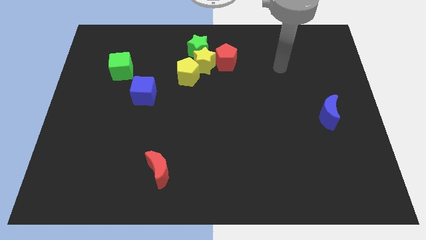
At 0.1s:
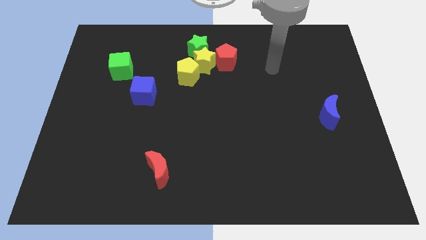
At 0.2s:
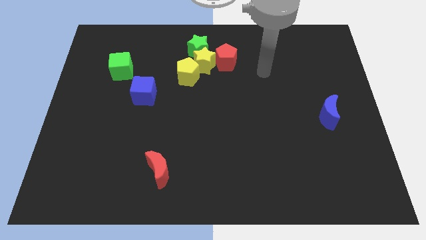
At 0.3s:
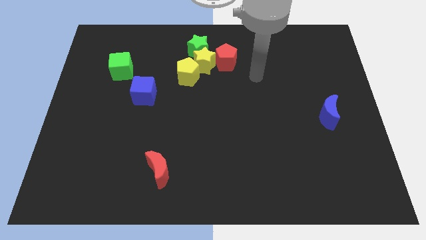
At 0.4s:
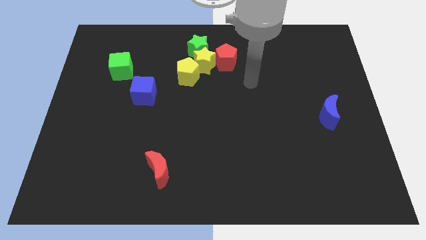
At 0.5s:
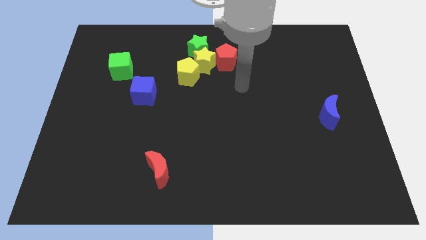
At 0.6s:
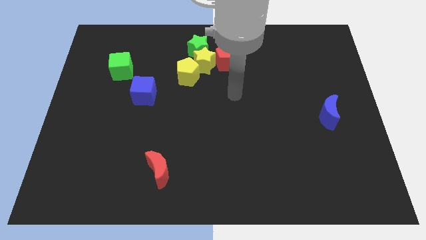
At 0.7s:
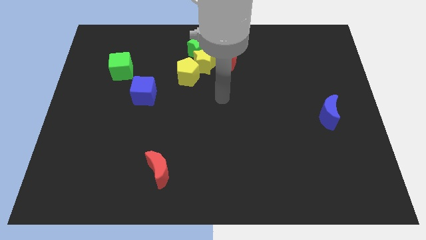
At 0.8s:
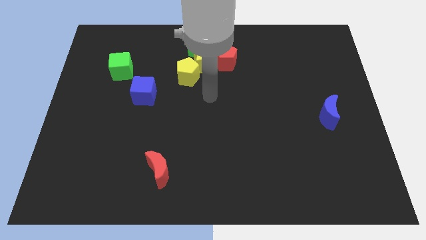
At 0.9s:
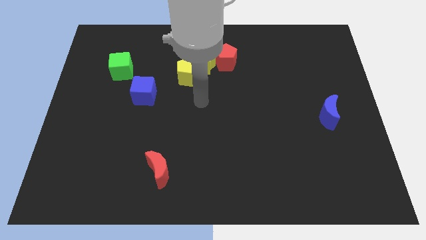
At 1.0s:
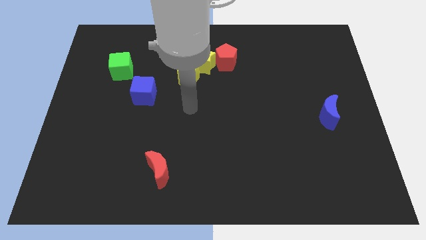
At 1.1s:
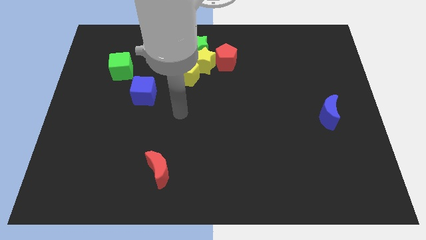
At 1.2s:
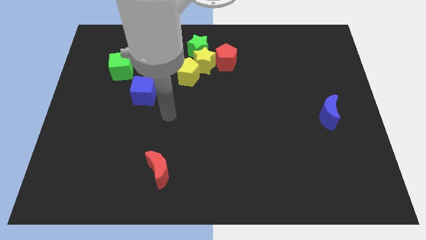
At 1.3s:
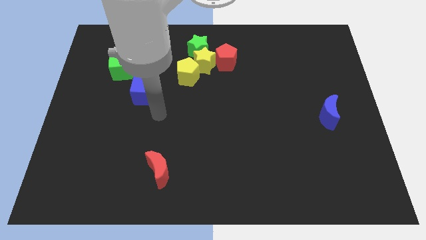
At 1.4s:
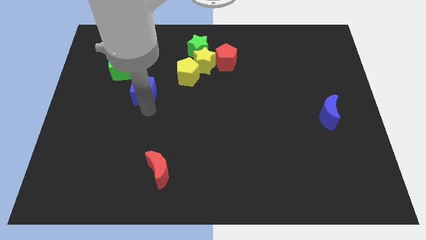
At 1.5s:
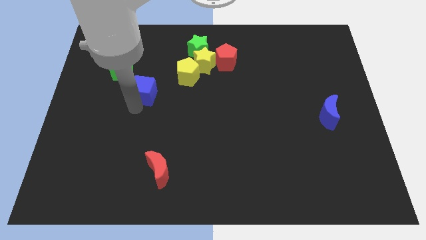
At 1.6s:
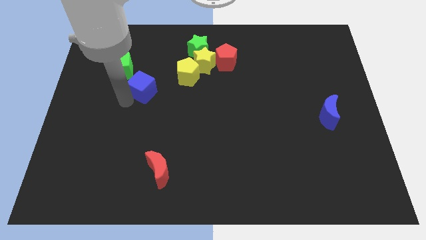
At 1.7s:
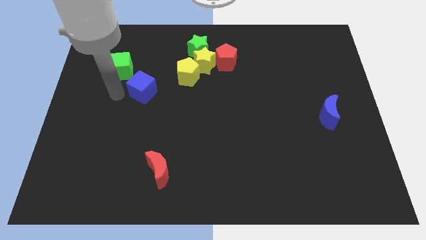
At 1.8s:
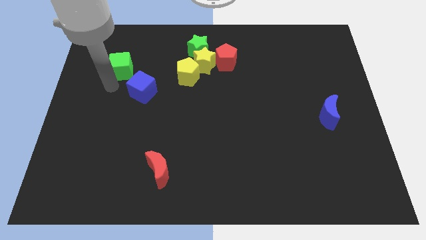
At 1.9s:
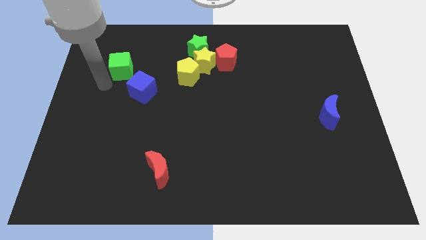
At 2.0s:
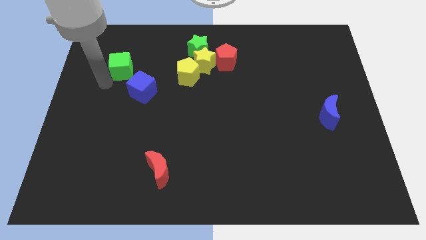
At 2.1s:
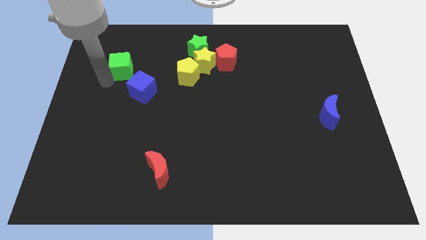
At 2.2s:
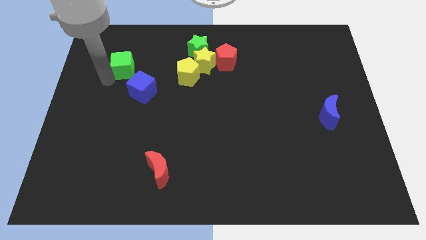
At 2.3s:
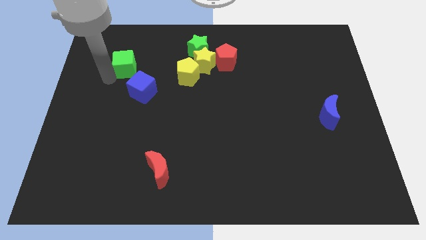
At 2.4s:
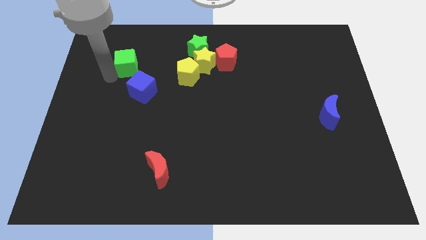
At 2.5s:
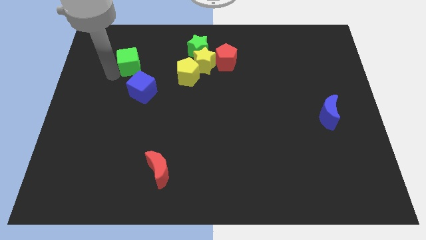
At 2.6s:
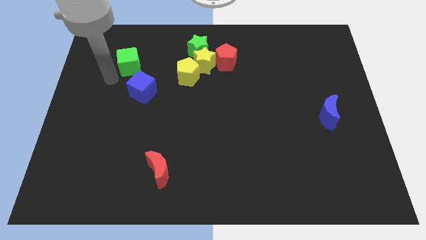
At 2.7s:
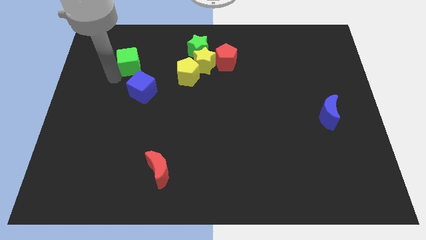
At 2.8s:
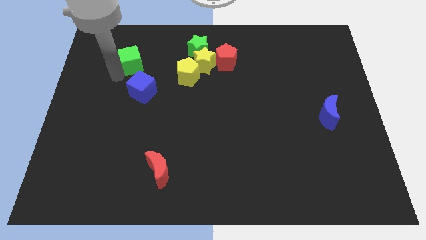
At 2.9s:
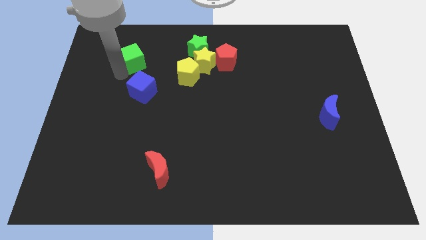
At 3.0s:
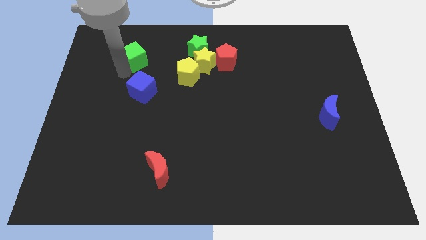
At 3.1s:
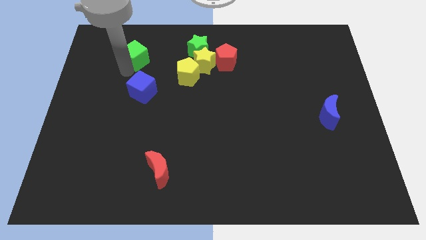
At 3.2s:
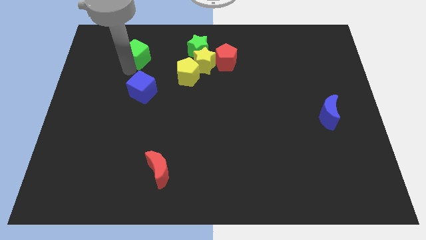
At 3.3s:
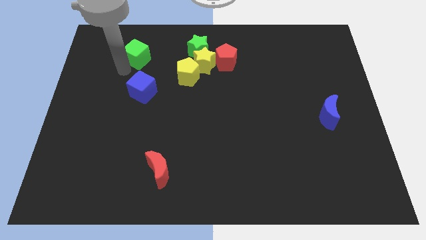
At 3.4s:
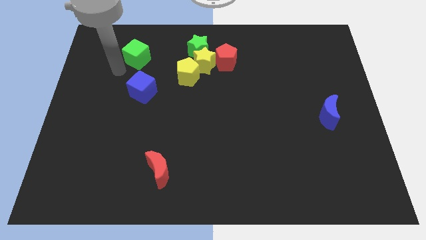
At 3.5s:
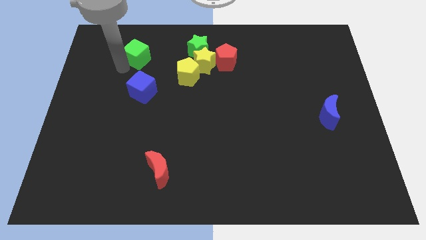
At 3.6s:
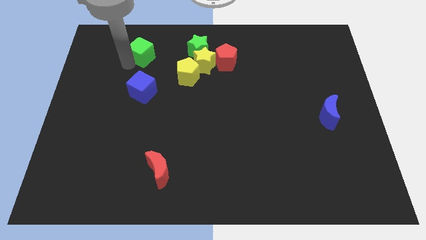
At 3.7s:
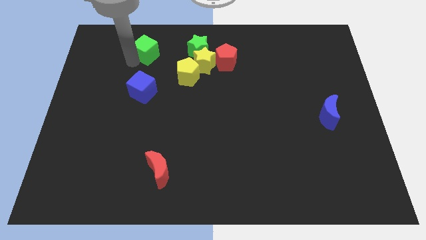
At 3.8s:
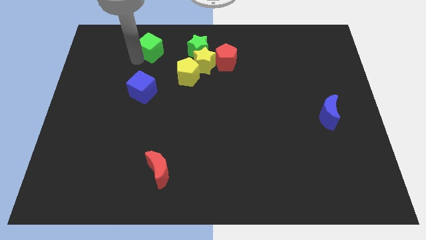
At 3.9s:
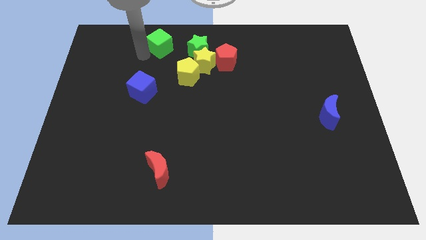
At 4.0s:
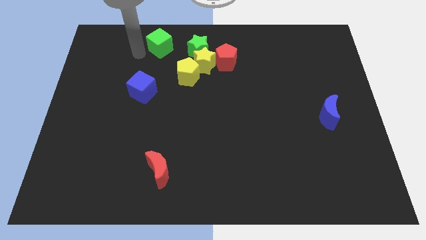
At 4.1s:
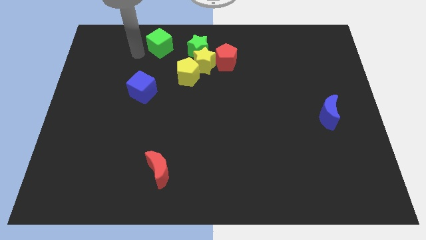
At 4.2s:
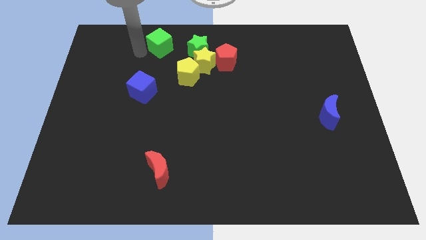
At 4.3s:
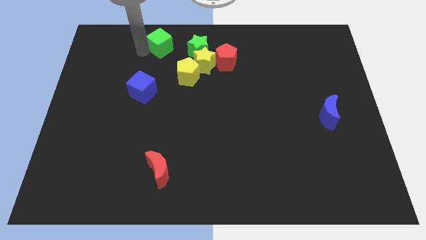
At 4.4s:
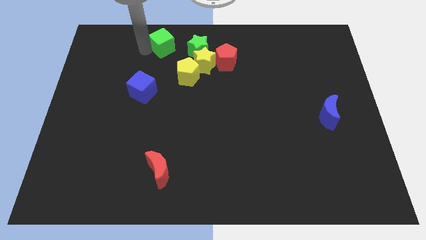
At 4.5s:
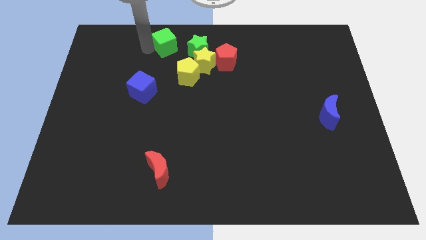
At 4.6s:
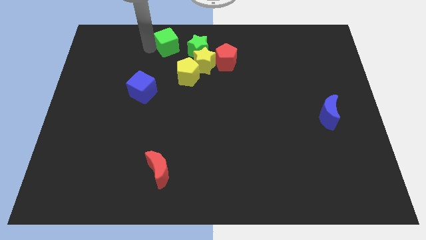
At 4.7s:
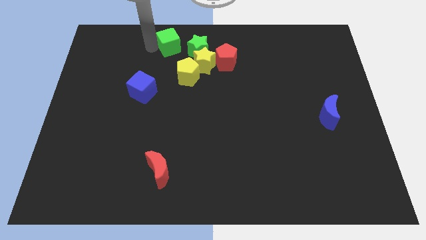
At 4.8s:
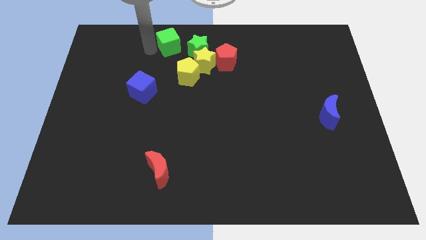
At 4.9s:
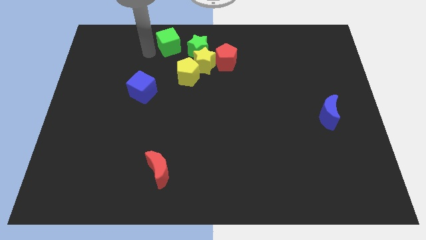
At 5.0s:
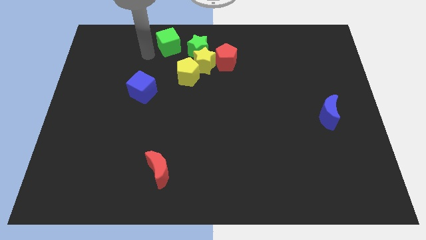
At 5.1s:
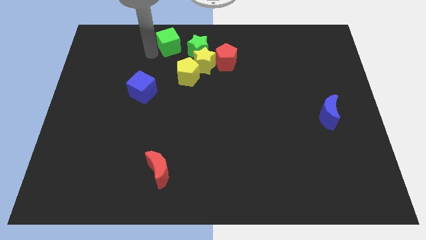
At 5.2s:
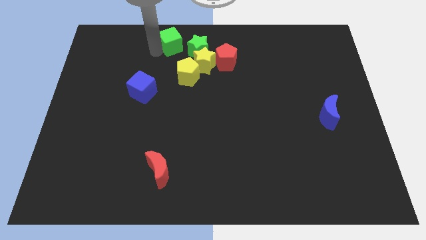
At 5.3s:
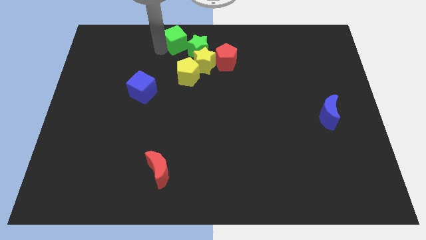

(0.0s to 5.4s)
put the green cube to the top
